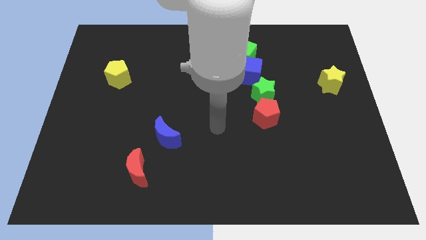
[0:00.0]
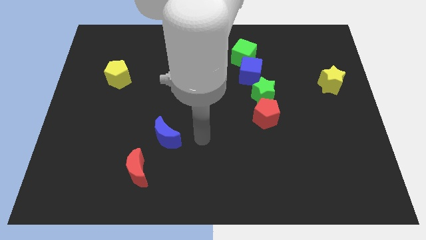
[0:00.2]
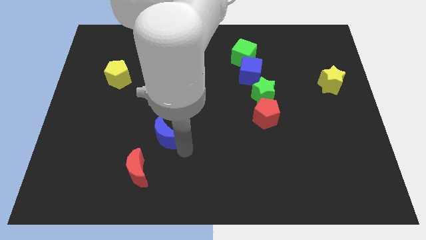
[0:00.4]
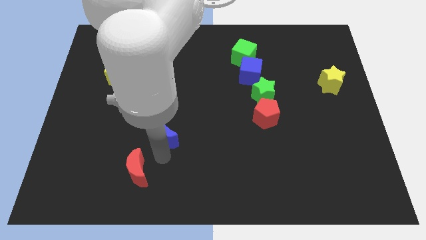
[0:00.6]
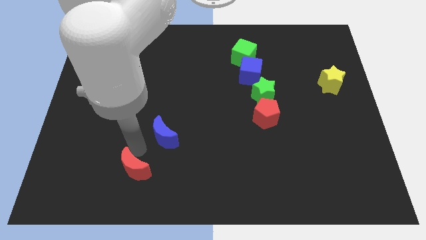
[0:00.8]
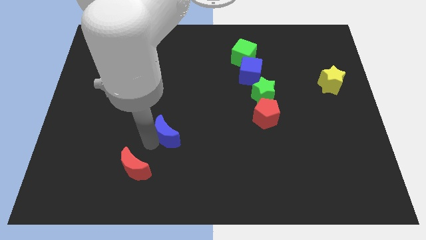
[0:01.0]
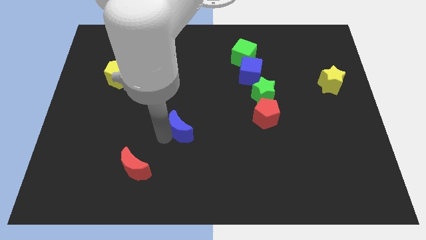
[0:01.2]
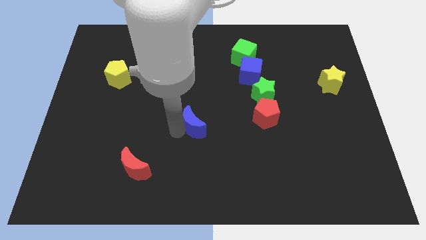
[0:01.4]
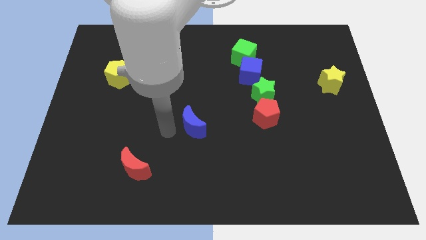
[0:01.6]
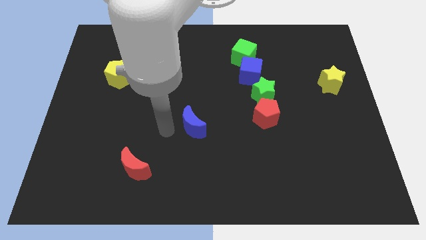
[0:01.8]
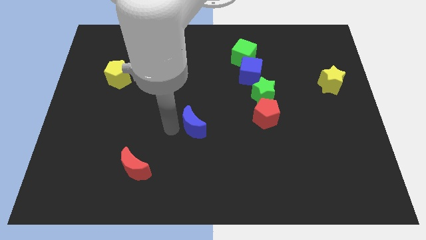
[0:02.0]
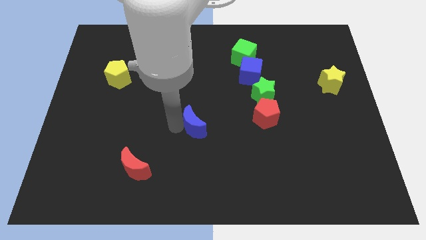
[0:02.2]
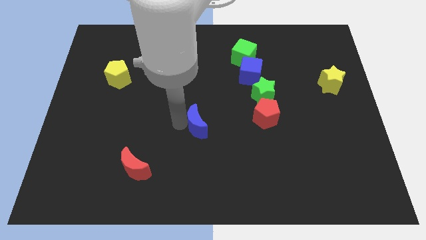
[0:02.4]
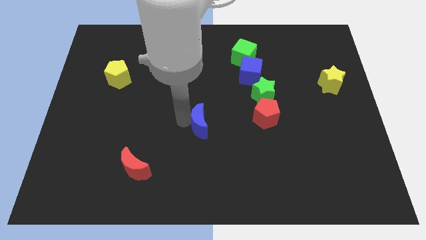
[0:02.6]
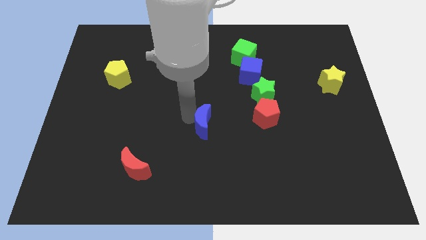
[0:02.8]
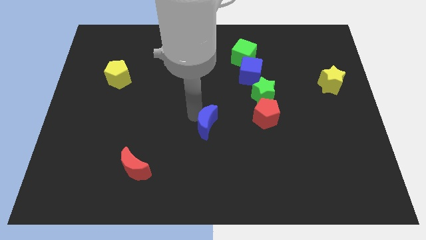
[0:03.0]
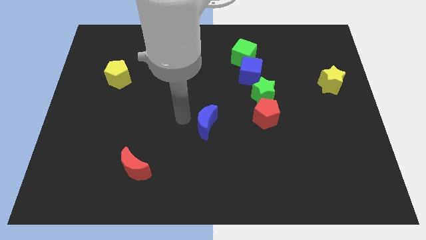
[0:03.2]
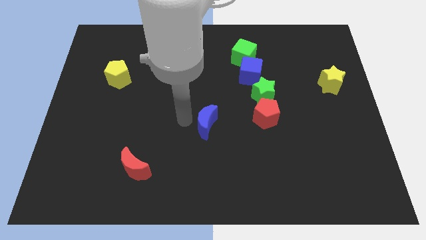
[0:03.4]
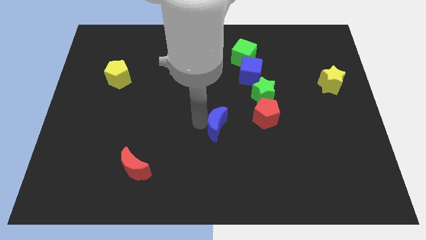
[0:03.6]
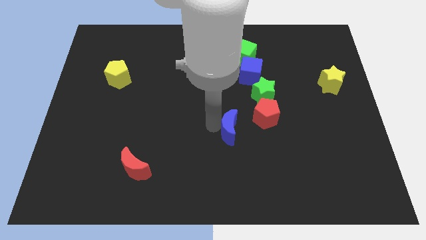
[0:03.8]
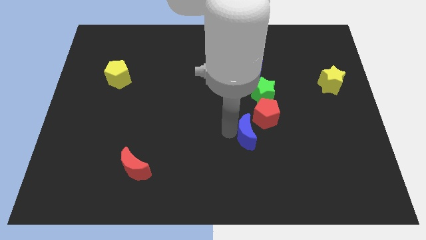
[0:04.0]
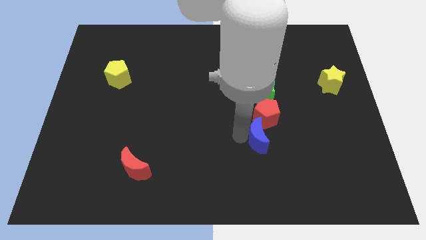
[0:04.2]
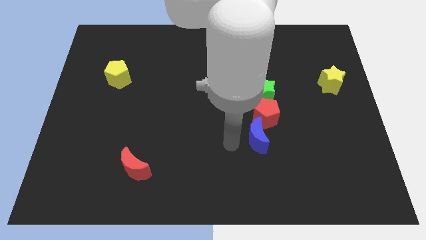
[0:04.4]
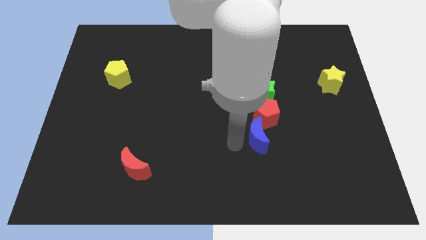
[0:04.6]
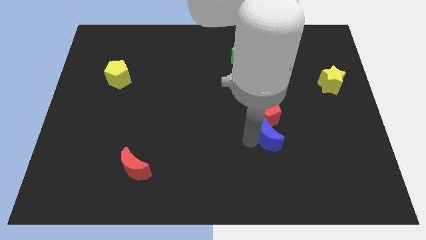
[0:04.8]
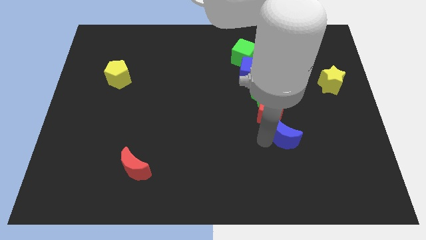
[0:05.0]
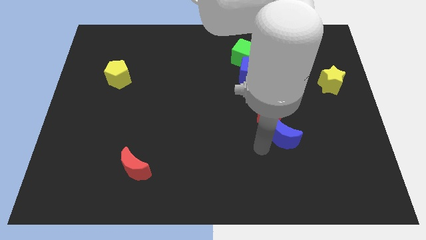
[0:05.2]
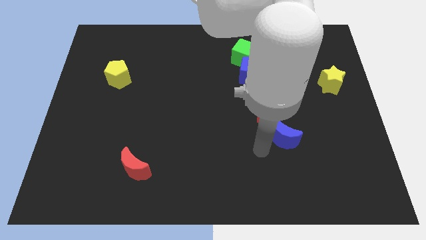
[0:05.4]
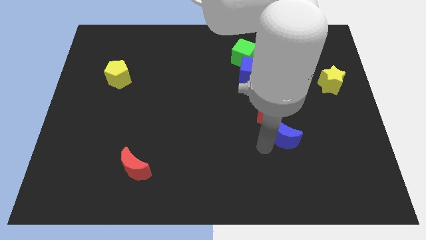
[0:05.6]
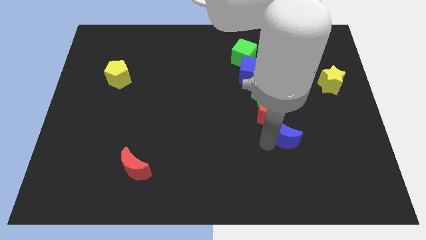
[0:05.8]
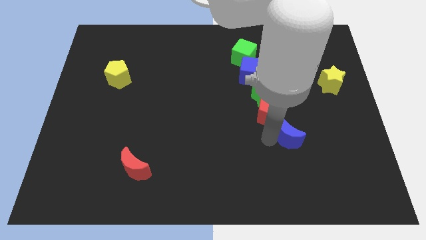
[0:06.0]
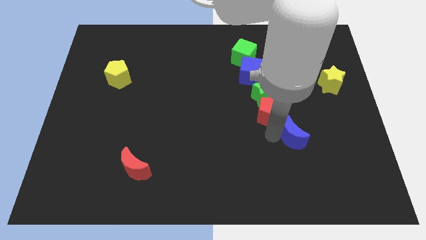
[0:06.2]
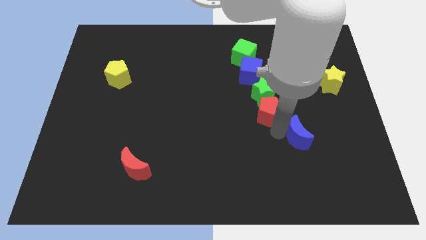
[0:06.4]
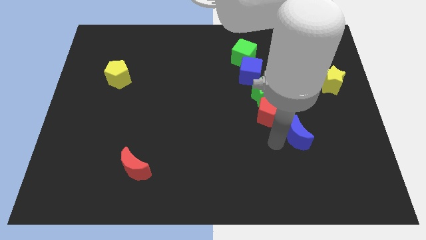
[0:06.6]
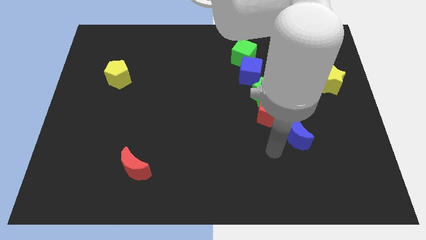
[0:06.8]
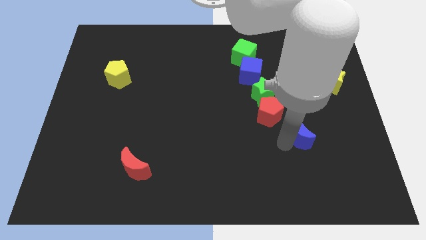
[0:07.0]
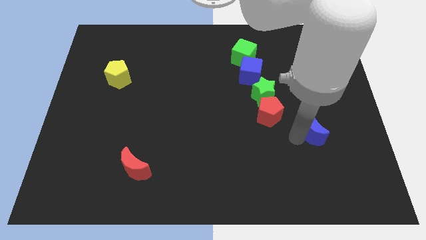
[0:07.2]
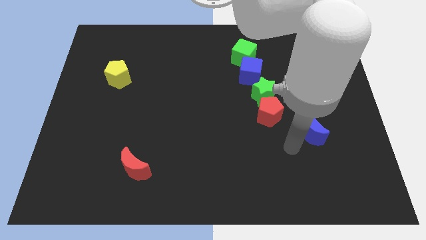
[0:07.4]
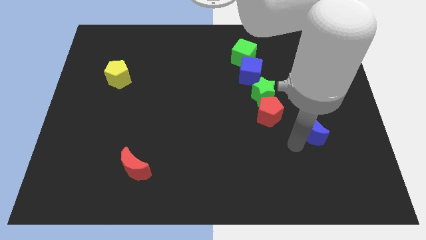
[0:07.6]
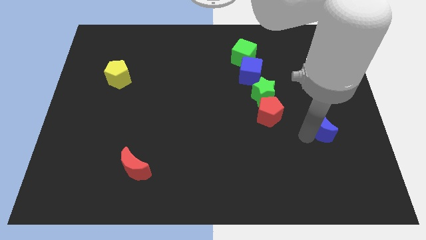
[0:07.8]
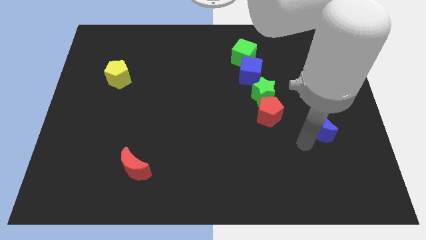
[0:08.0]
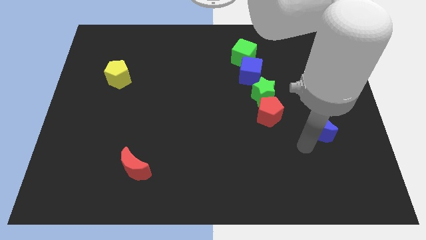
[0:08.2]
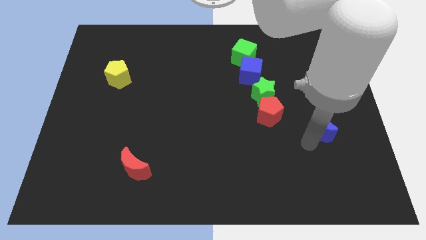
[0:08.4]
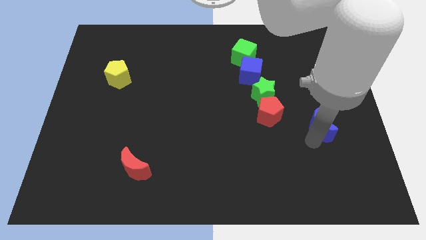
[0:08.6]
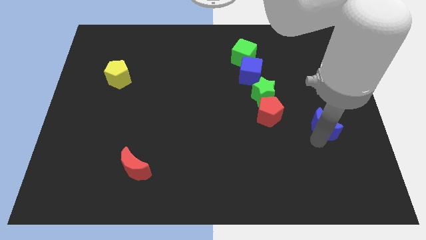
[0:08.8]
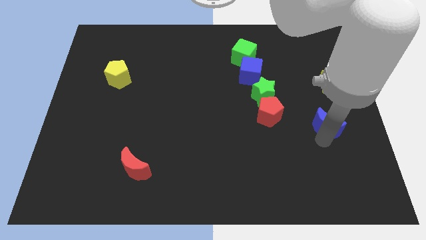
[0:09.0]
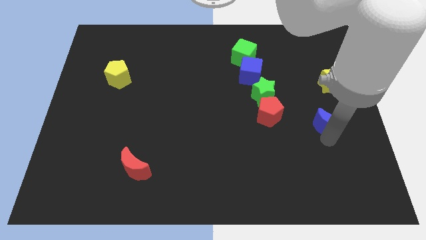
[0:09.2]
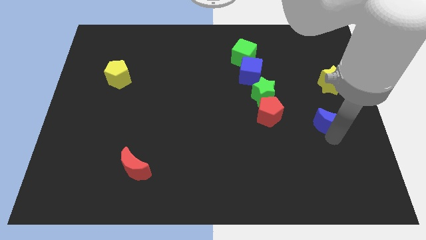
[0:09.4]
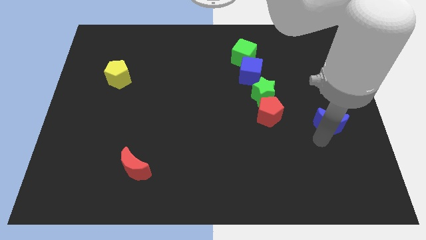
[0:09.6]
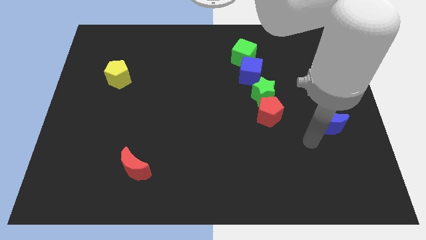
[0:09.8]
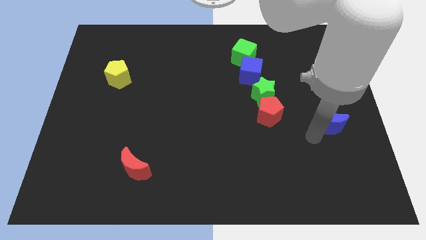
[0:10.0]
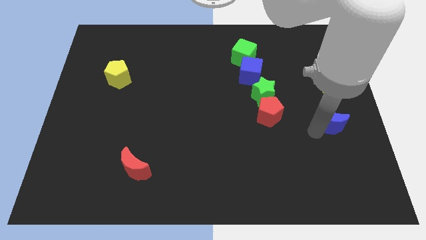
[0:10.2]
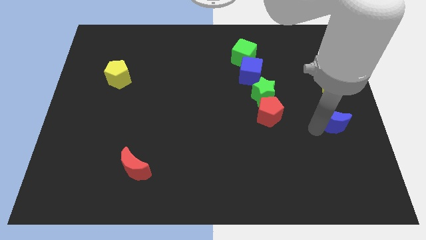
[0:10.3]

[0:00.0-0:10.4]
move the blue moon to the right side

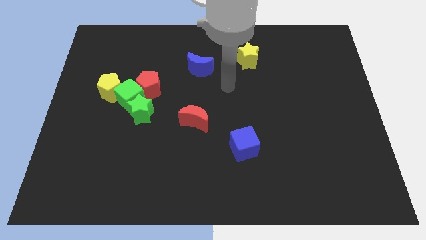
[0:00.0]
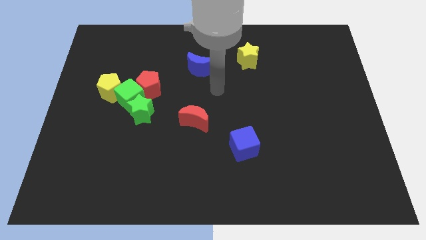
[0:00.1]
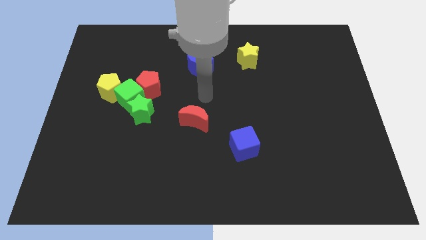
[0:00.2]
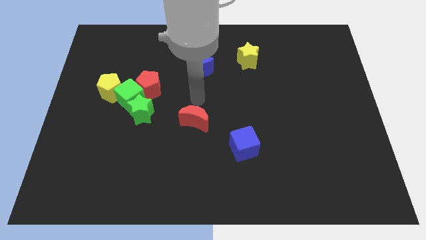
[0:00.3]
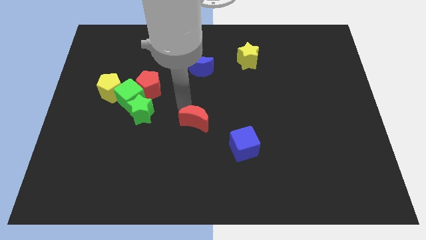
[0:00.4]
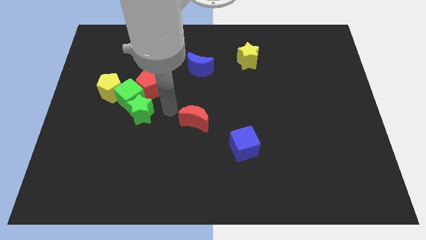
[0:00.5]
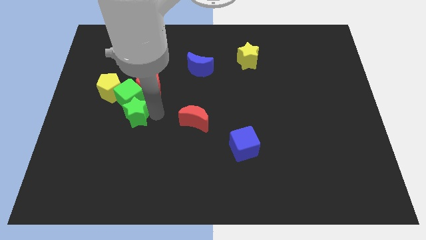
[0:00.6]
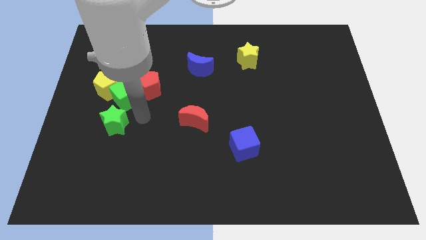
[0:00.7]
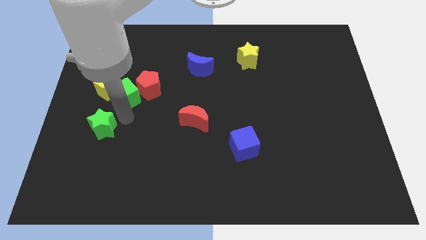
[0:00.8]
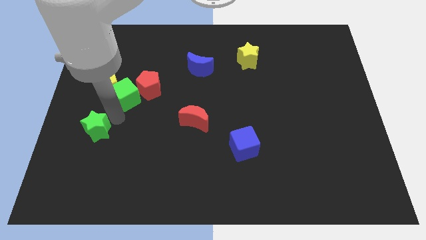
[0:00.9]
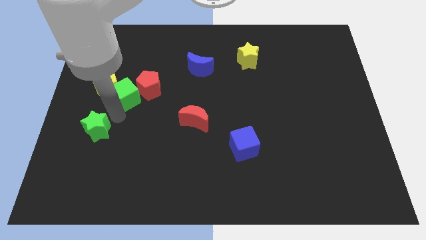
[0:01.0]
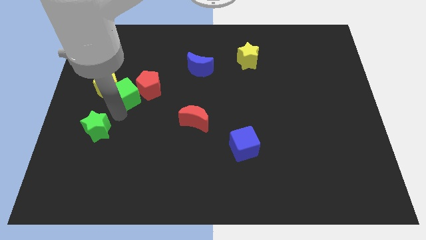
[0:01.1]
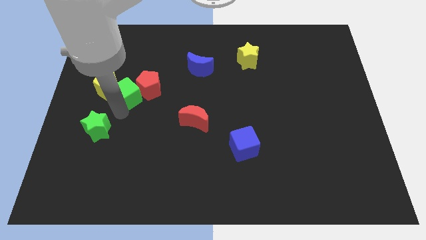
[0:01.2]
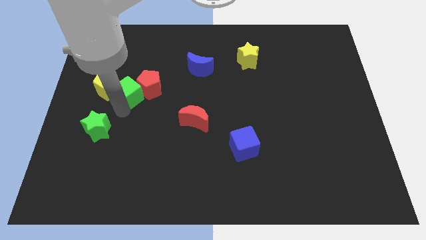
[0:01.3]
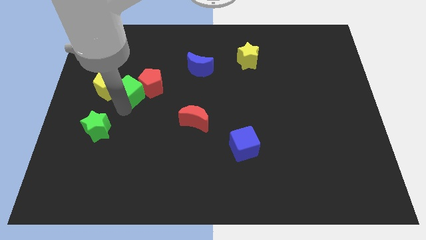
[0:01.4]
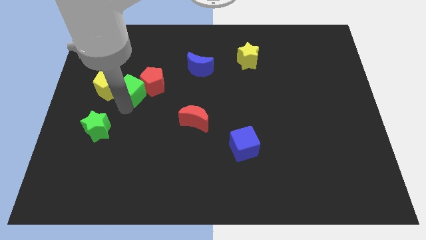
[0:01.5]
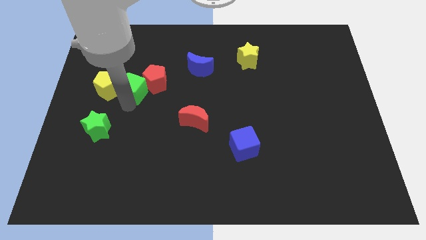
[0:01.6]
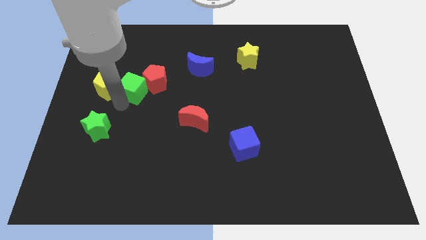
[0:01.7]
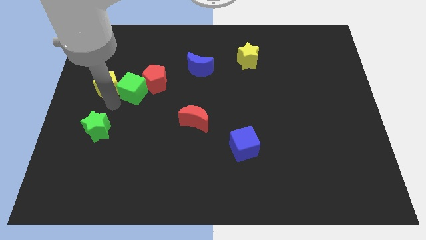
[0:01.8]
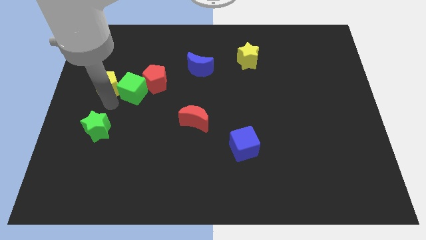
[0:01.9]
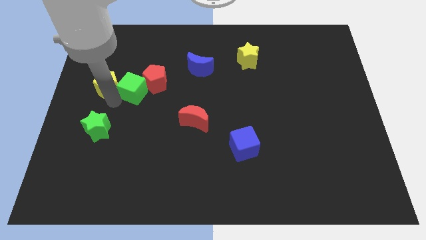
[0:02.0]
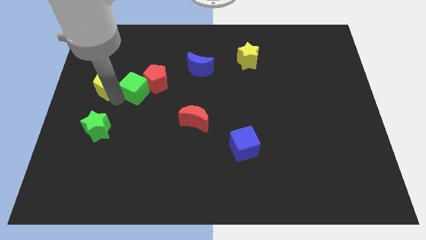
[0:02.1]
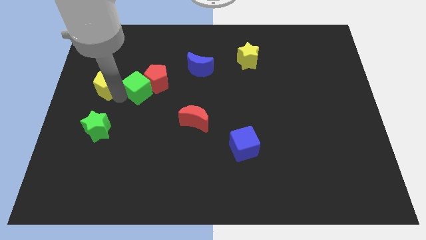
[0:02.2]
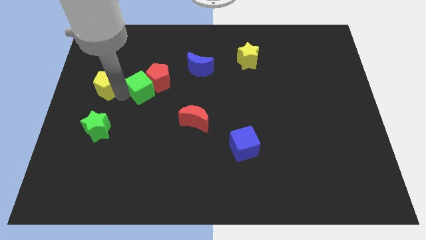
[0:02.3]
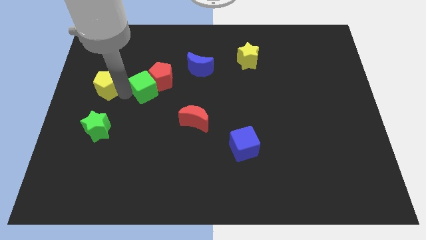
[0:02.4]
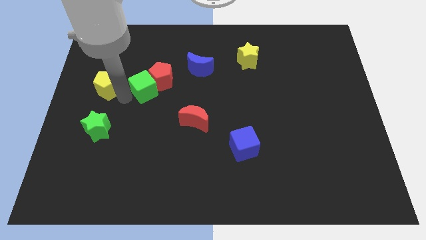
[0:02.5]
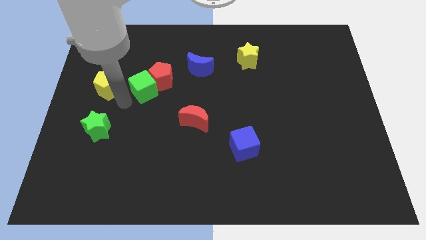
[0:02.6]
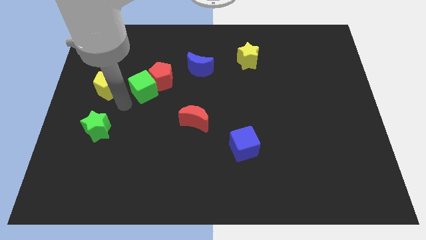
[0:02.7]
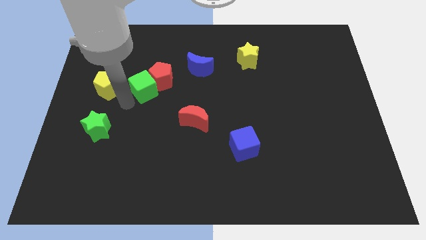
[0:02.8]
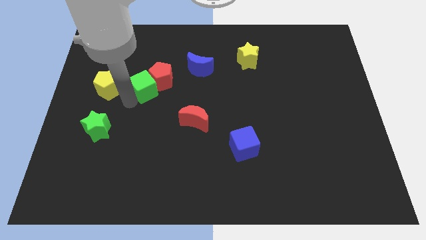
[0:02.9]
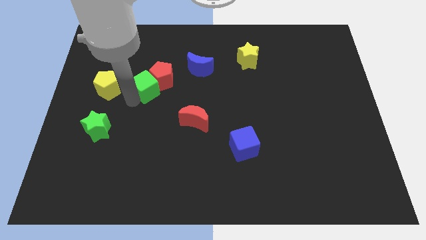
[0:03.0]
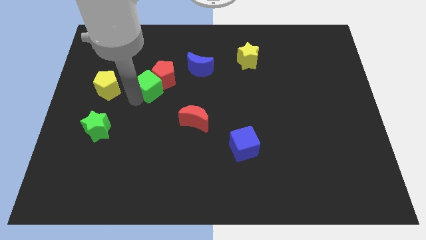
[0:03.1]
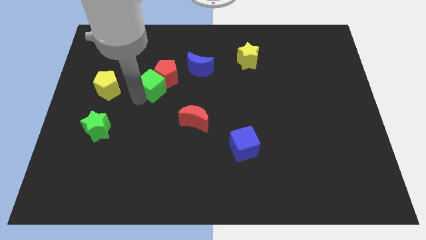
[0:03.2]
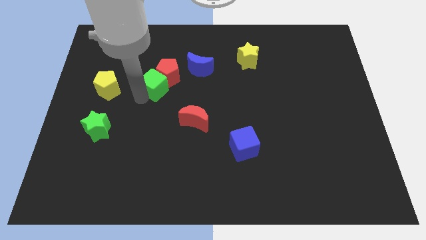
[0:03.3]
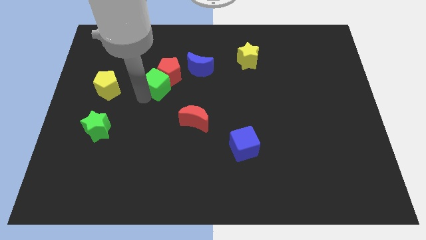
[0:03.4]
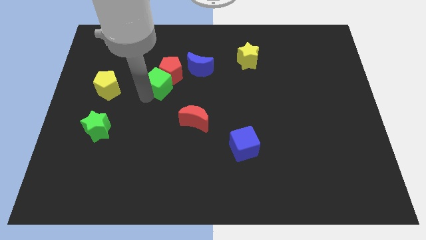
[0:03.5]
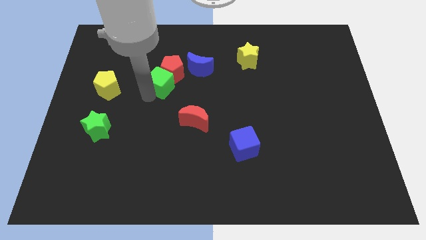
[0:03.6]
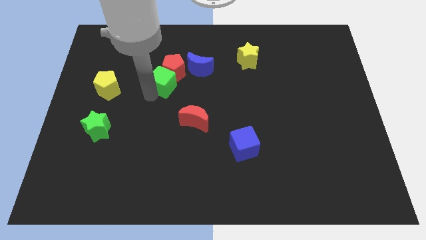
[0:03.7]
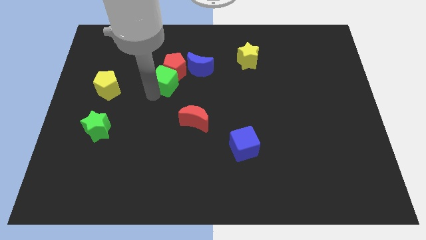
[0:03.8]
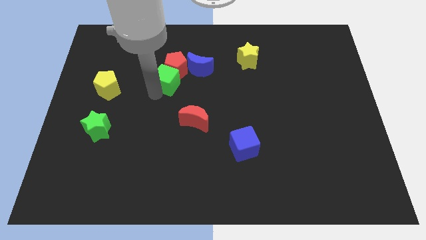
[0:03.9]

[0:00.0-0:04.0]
put the green cube to the center
